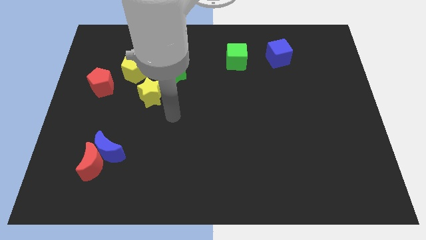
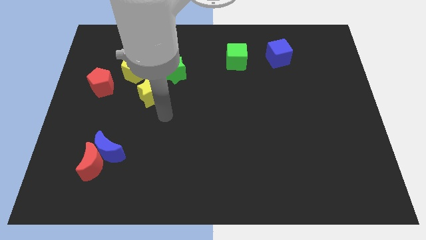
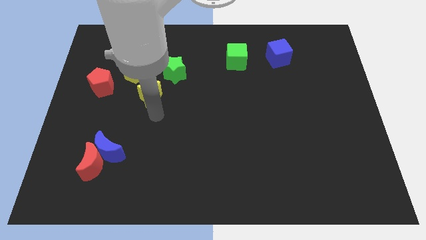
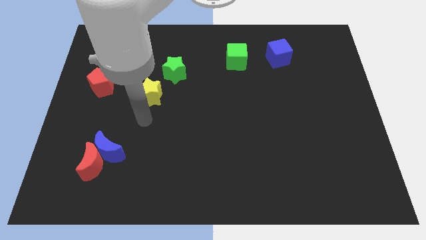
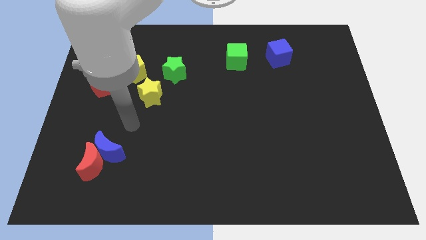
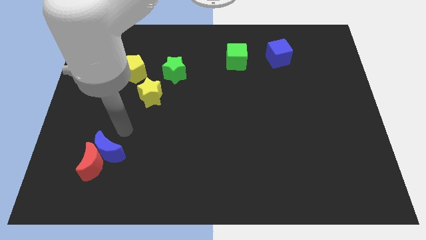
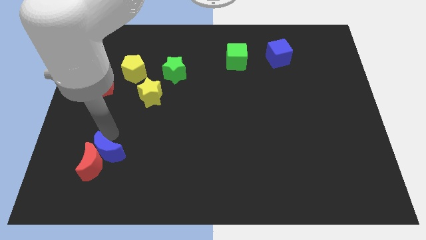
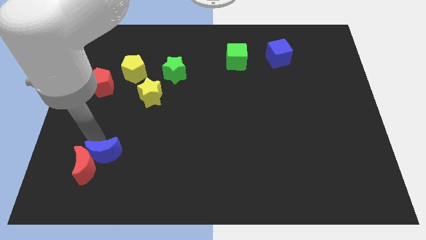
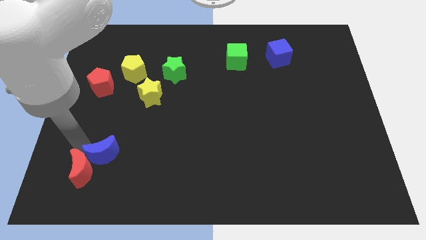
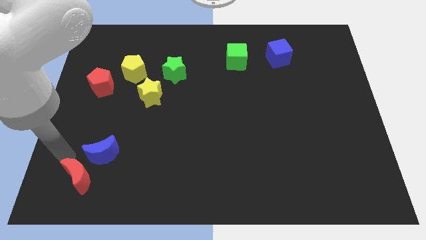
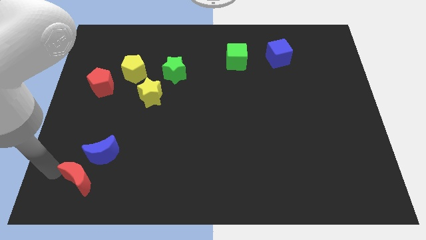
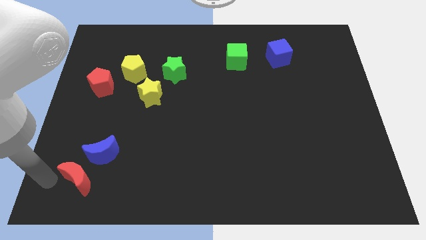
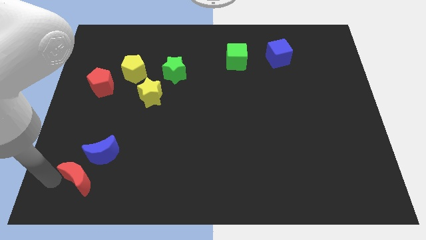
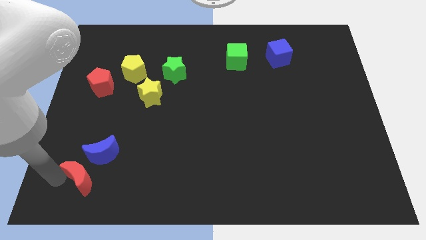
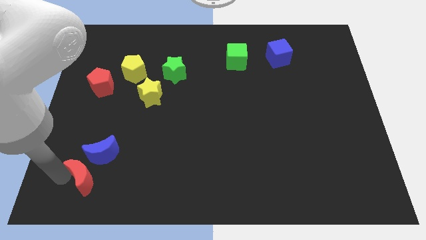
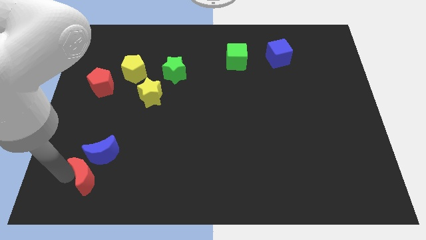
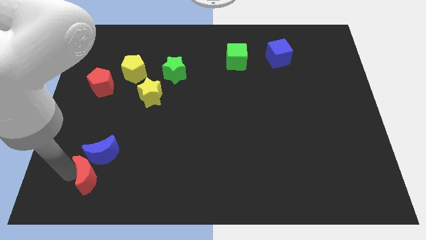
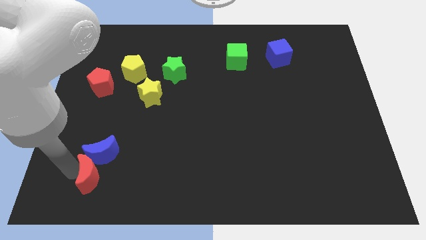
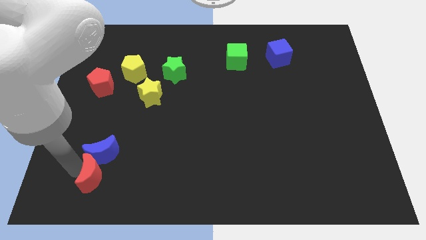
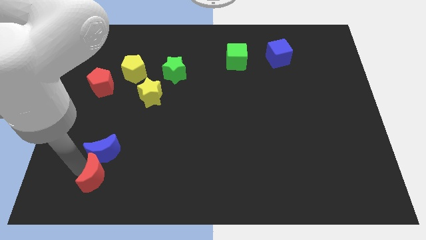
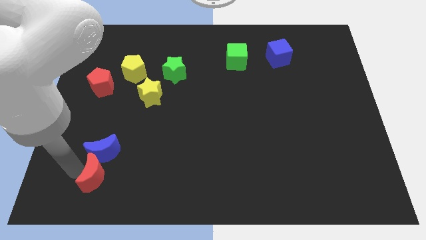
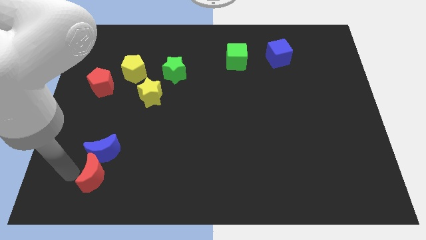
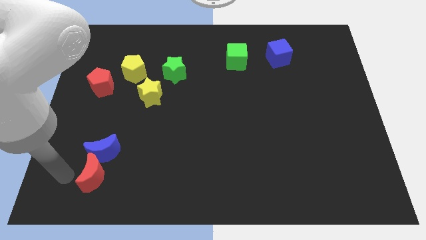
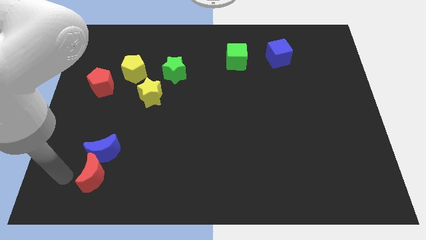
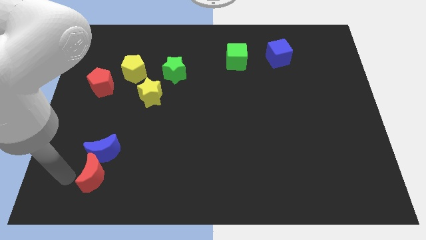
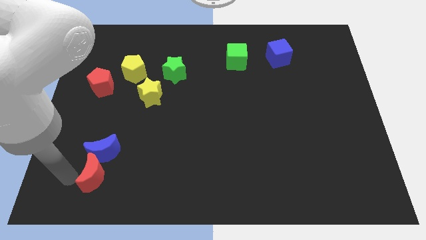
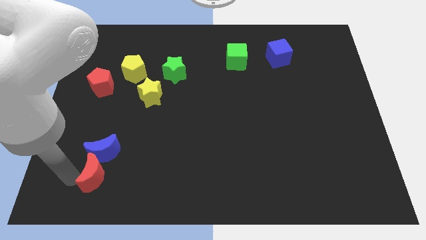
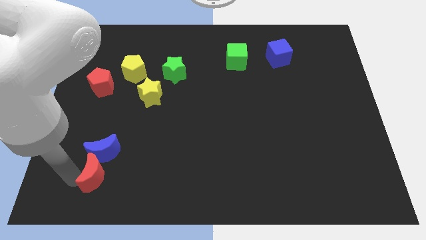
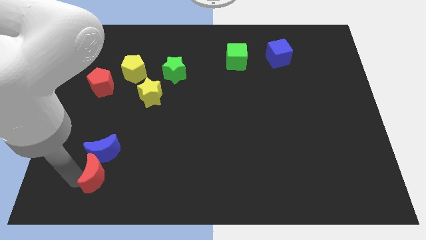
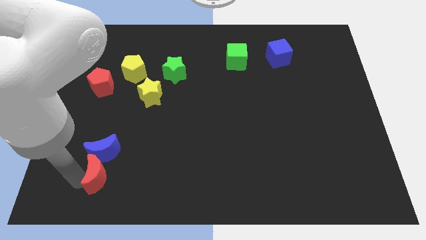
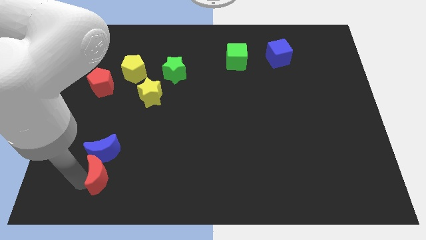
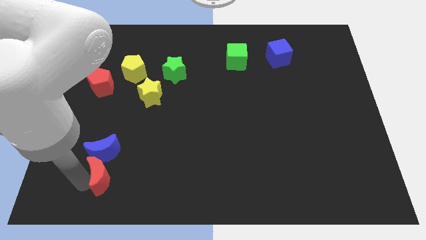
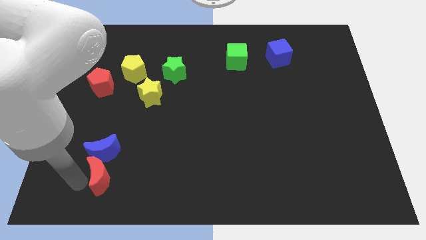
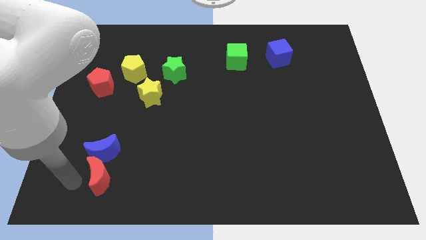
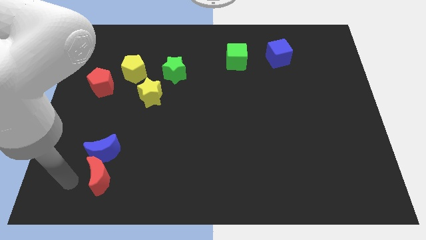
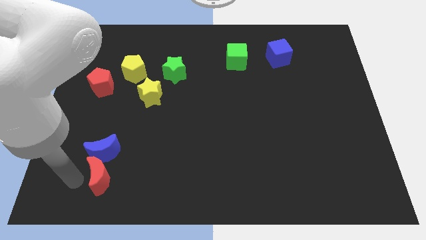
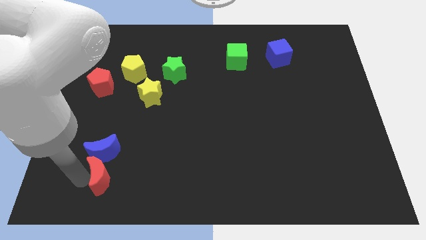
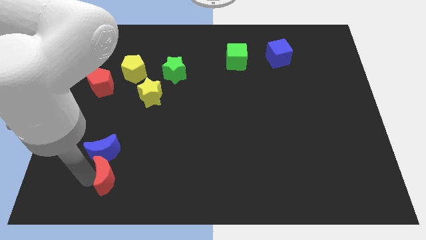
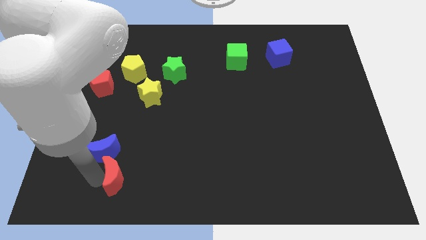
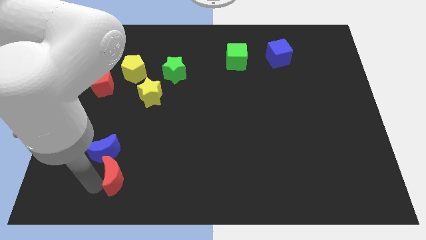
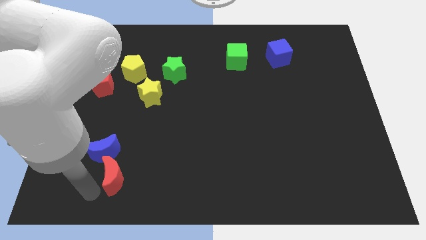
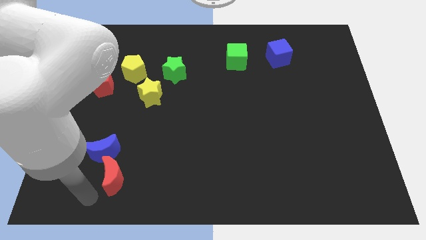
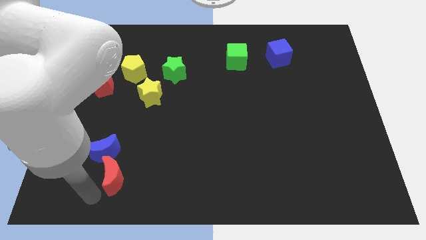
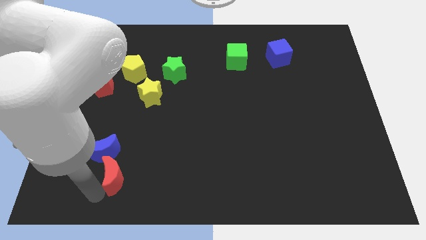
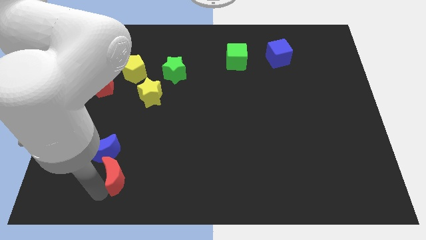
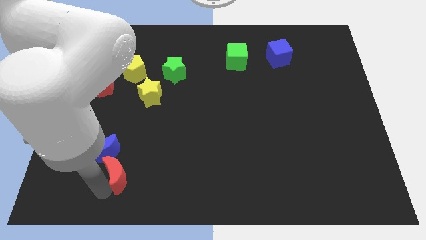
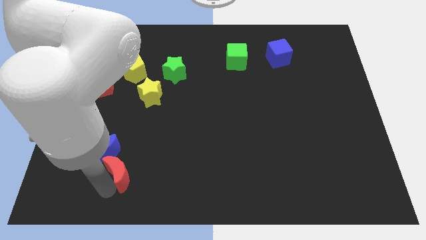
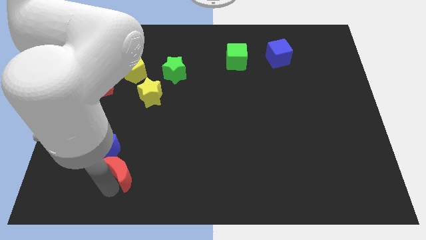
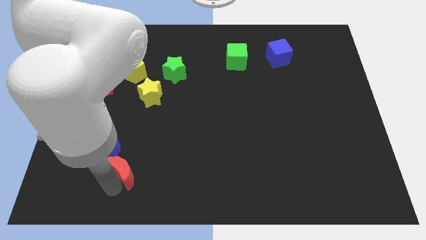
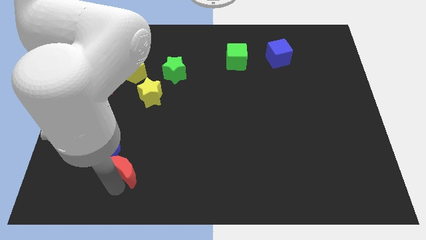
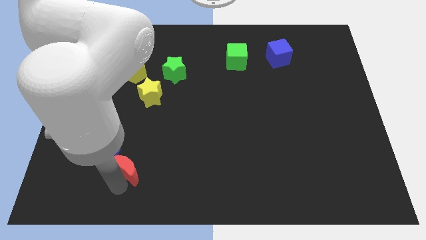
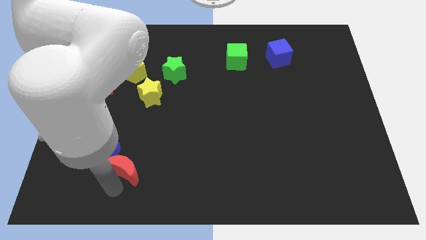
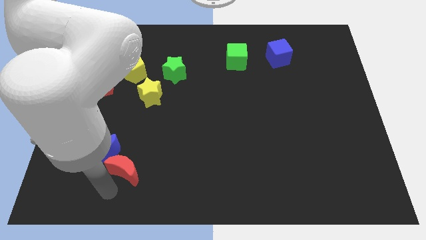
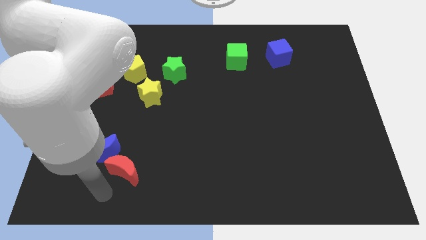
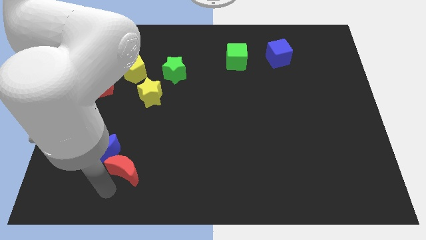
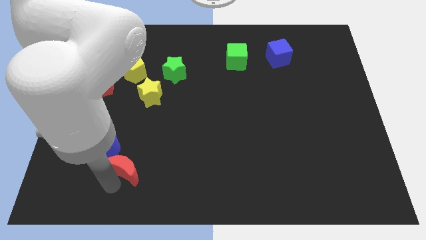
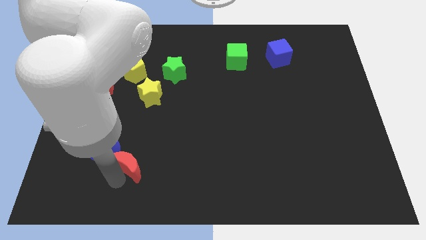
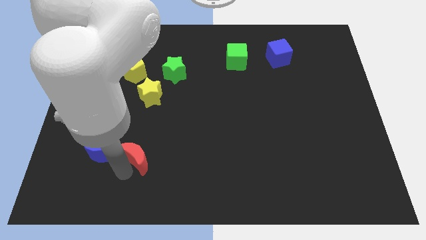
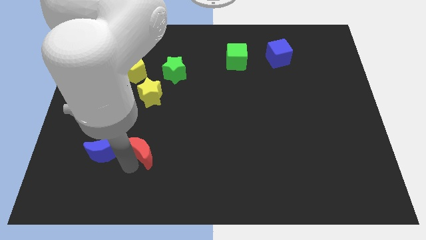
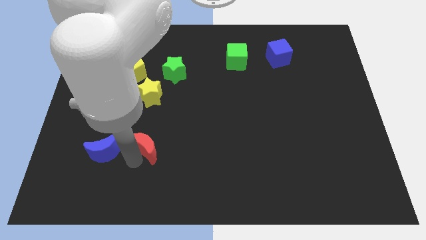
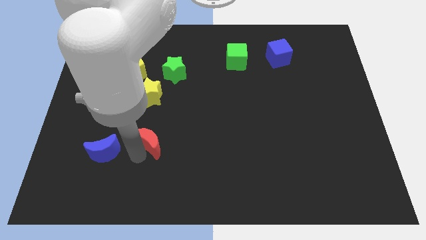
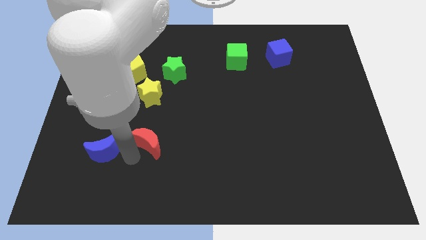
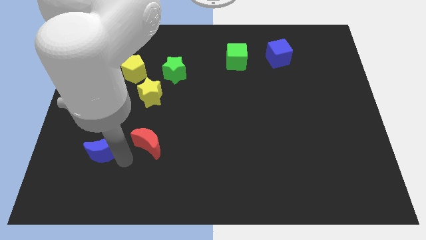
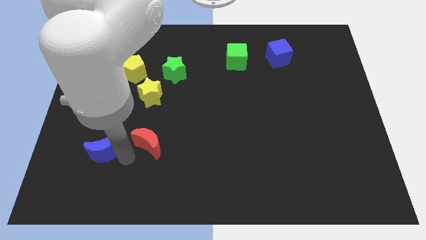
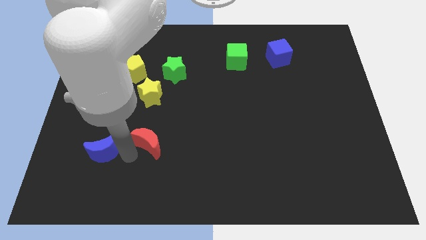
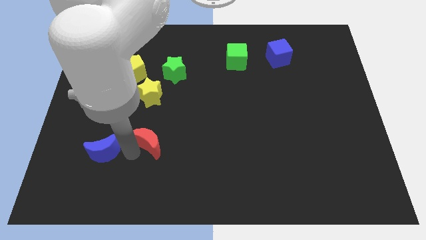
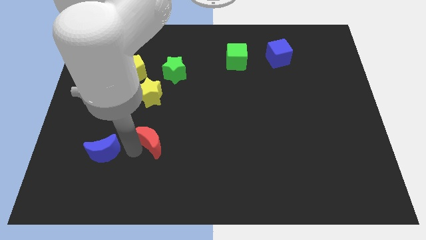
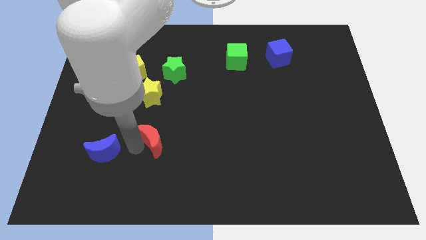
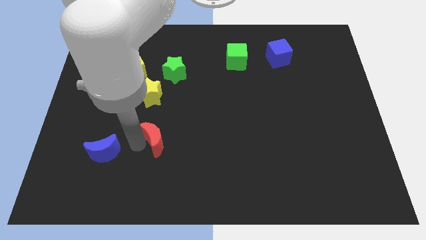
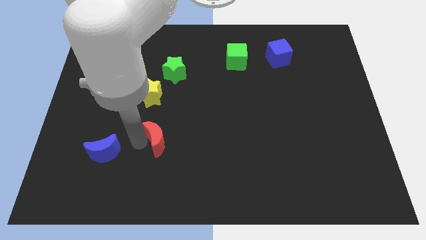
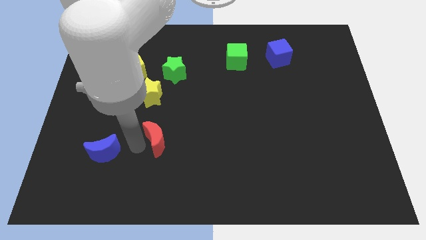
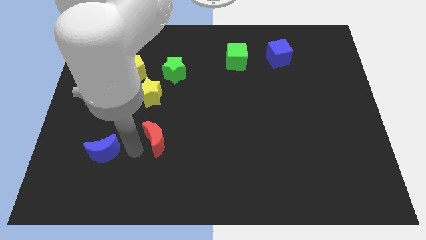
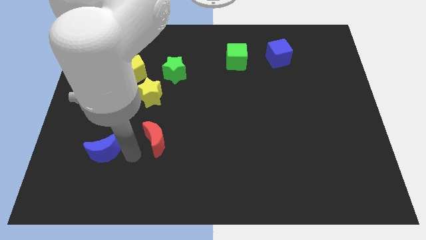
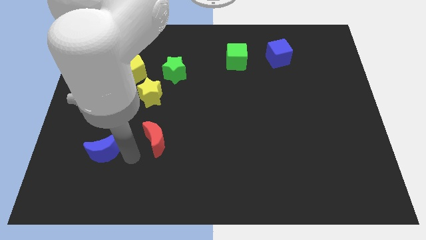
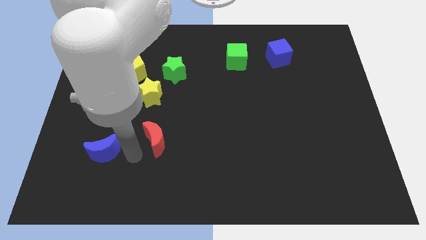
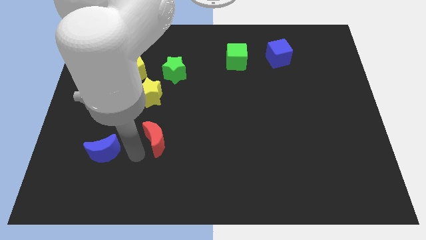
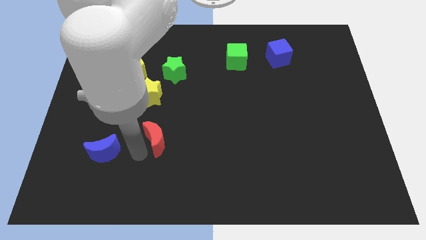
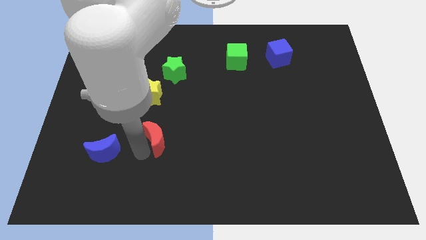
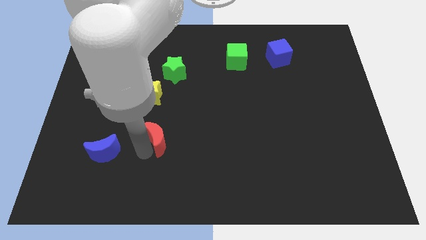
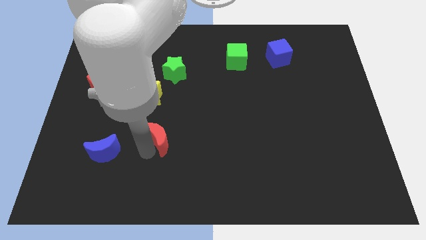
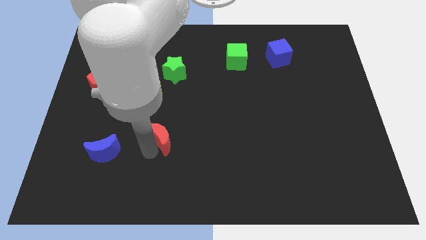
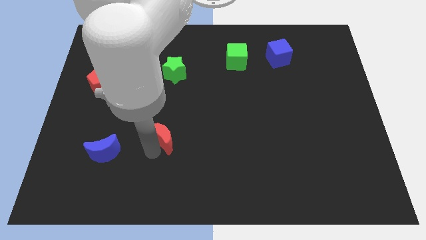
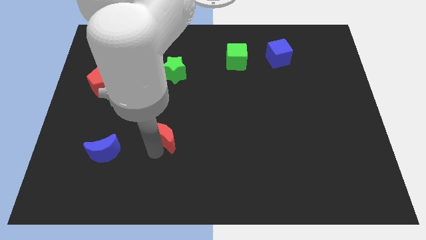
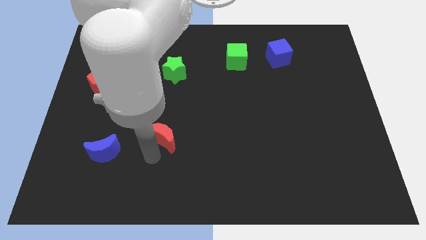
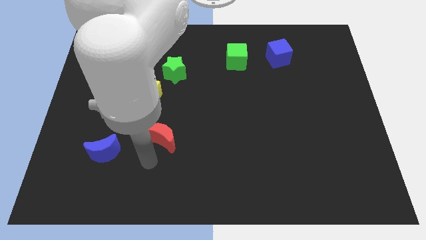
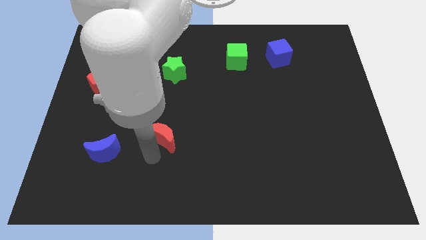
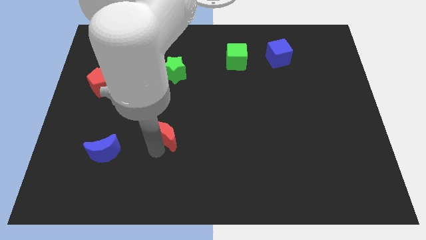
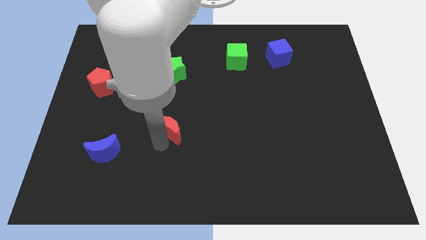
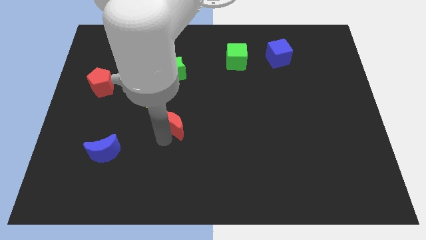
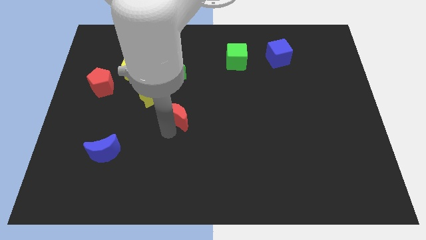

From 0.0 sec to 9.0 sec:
slide the red moon up and right diagonally
